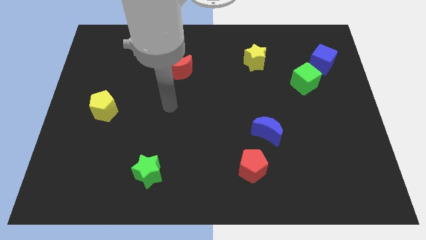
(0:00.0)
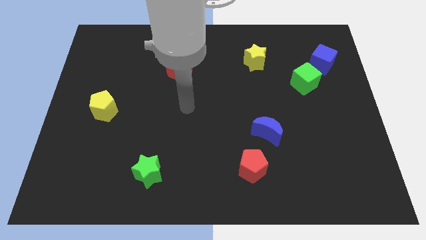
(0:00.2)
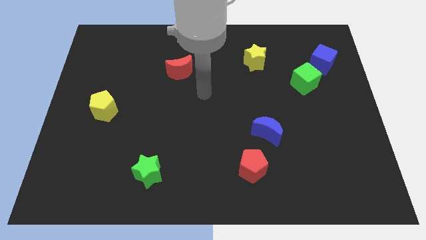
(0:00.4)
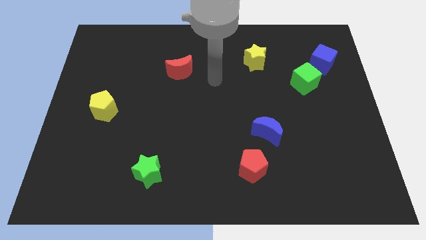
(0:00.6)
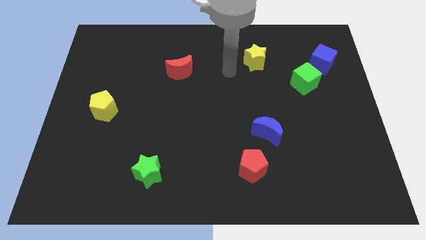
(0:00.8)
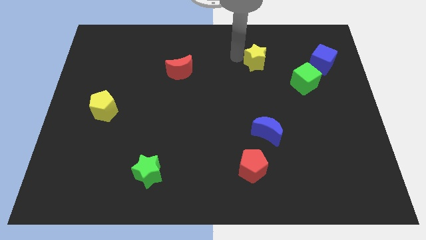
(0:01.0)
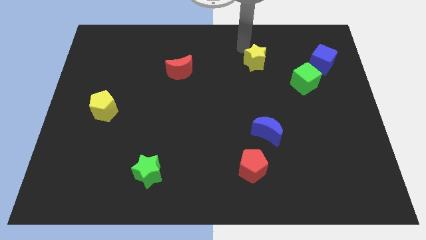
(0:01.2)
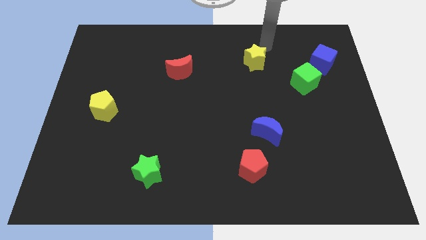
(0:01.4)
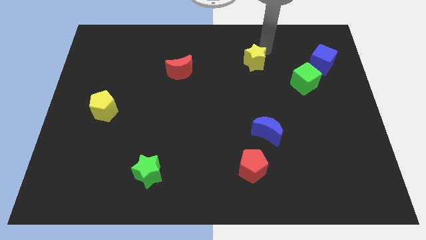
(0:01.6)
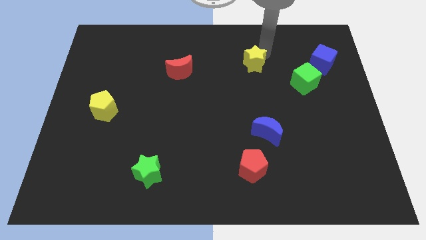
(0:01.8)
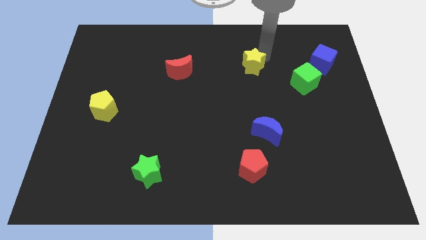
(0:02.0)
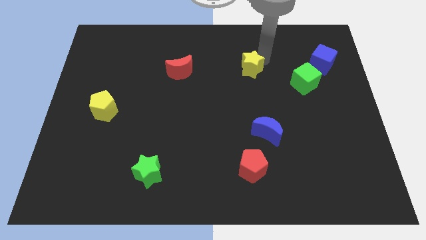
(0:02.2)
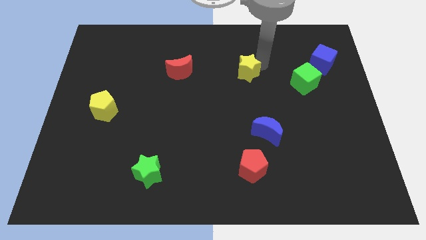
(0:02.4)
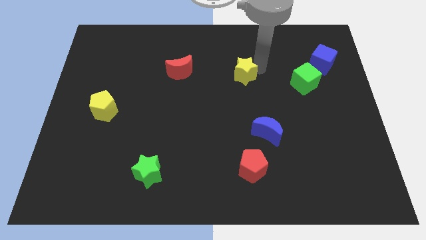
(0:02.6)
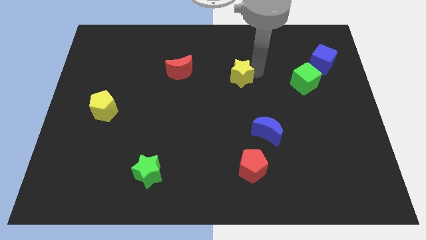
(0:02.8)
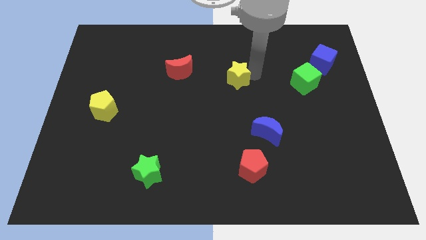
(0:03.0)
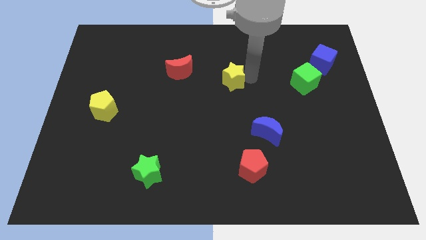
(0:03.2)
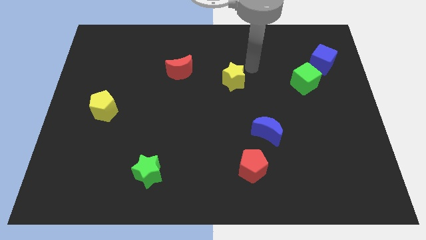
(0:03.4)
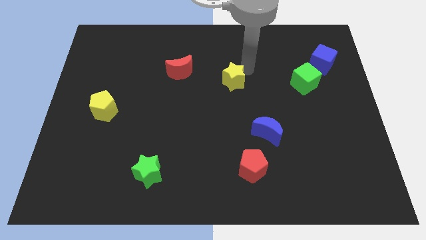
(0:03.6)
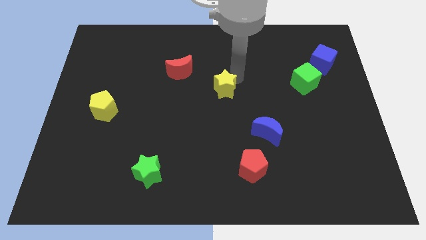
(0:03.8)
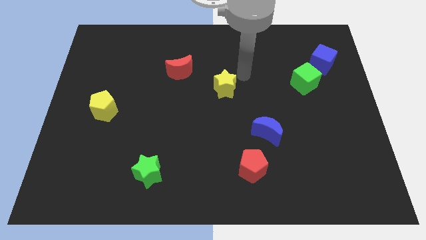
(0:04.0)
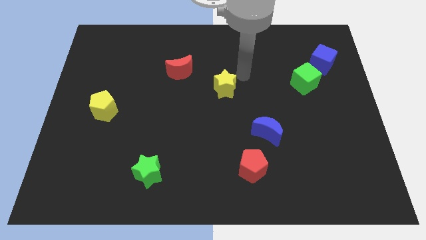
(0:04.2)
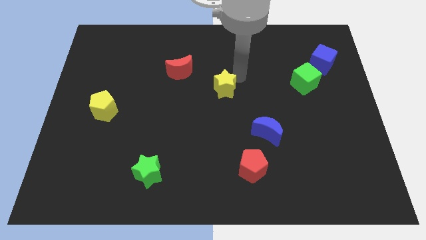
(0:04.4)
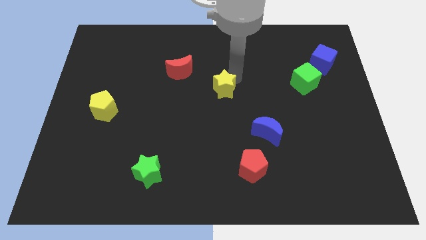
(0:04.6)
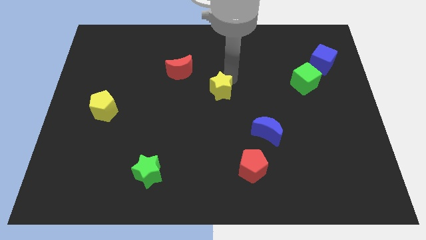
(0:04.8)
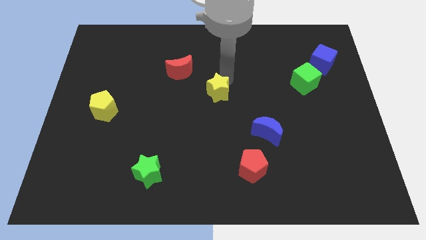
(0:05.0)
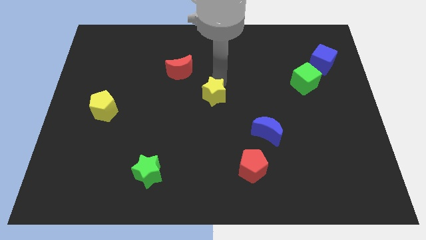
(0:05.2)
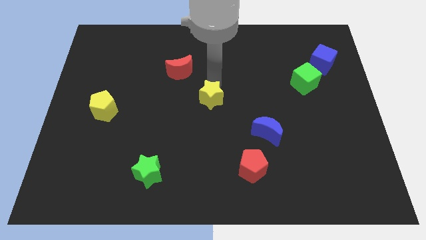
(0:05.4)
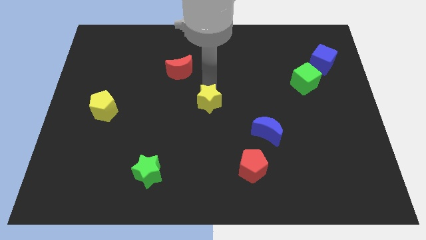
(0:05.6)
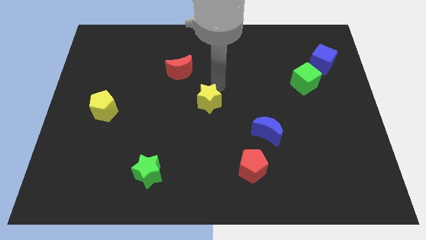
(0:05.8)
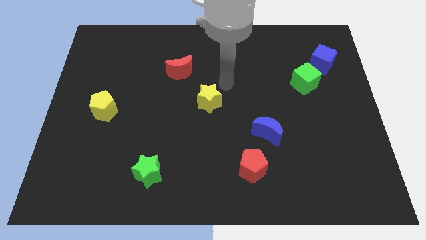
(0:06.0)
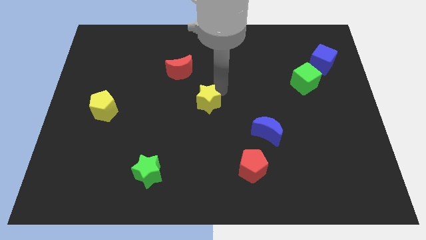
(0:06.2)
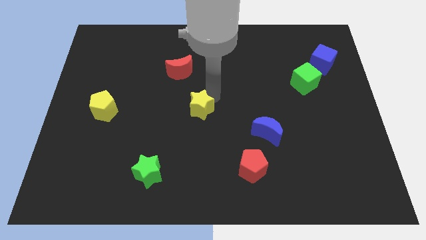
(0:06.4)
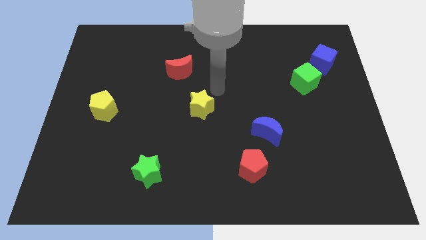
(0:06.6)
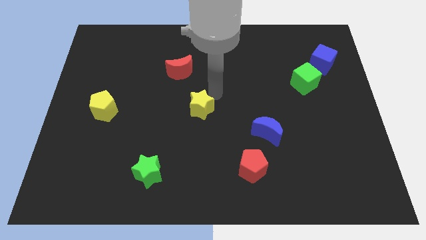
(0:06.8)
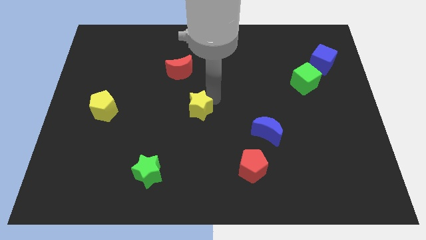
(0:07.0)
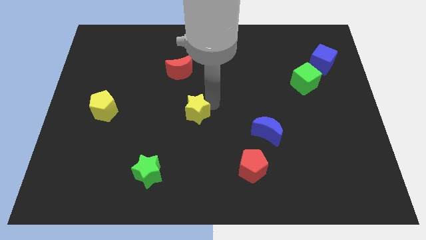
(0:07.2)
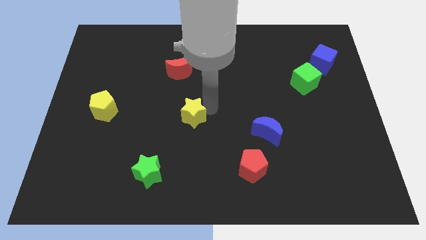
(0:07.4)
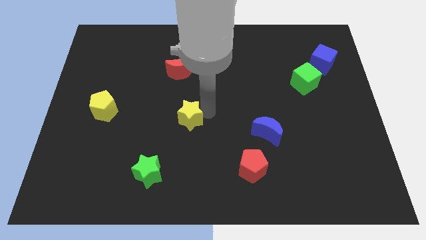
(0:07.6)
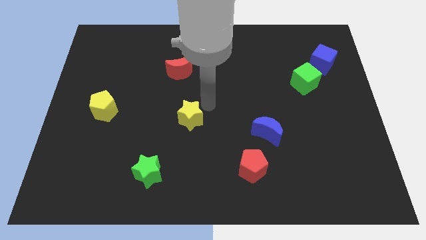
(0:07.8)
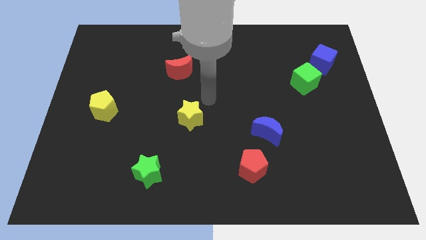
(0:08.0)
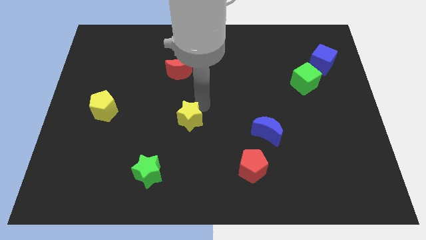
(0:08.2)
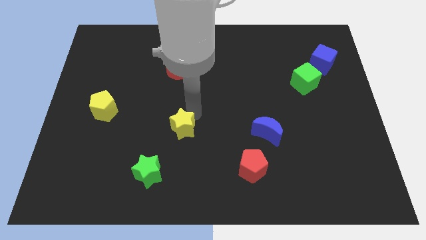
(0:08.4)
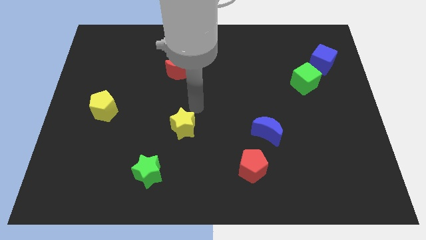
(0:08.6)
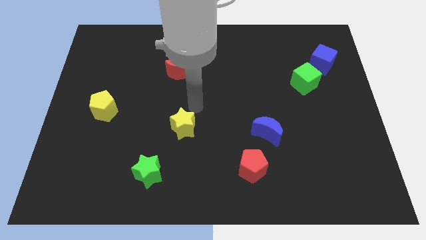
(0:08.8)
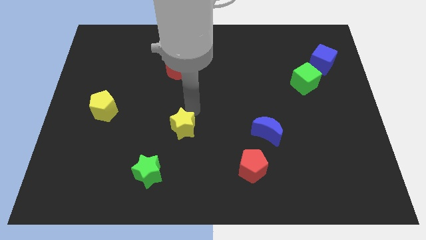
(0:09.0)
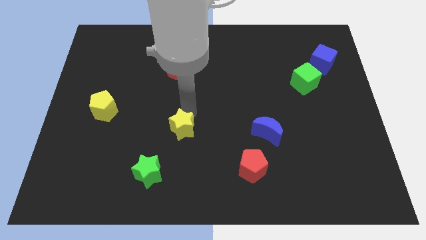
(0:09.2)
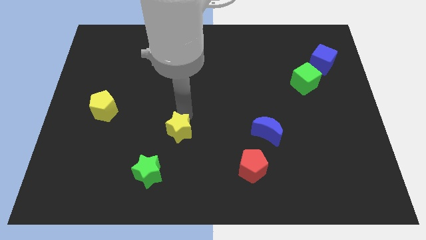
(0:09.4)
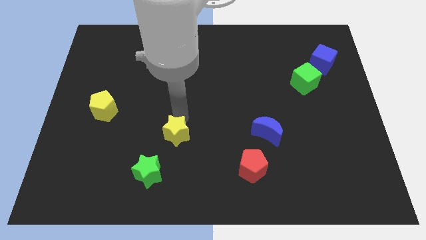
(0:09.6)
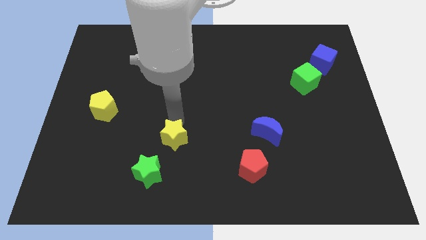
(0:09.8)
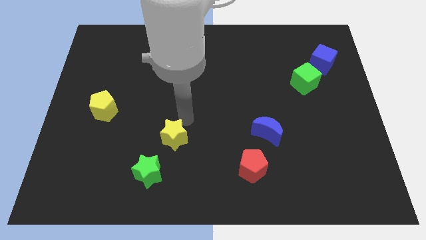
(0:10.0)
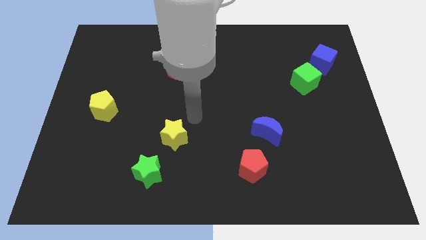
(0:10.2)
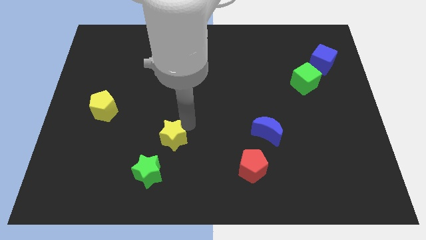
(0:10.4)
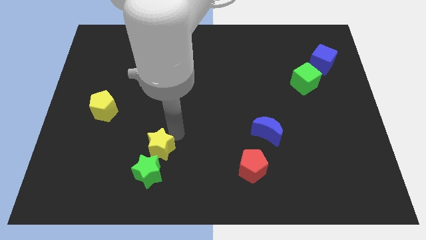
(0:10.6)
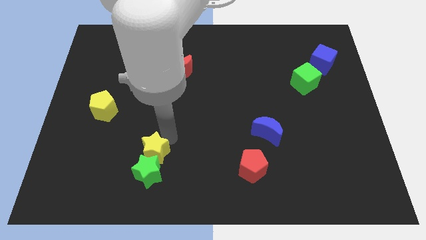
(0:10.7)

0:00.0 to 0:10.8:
push the yellow star to the green star

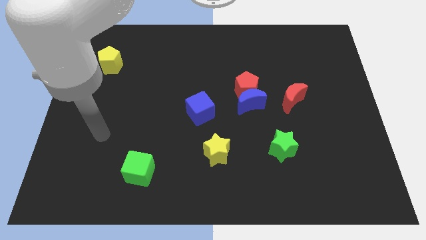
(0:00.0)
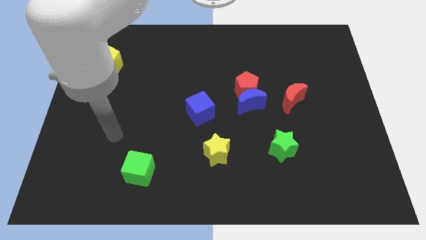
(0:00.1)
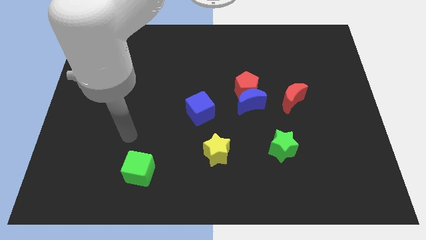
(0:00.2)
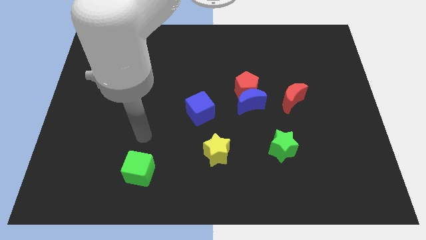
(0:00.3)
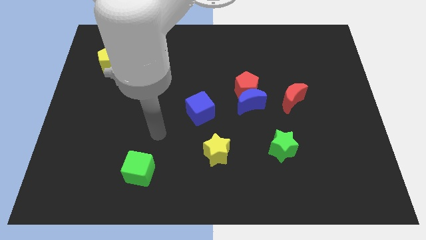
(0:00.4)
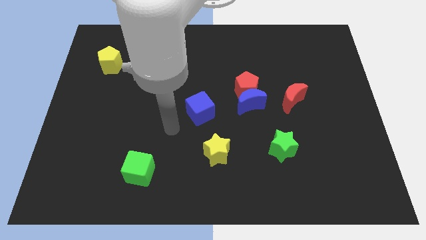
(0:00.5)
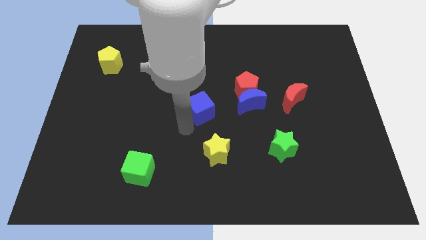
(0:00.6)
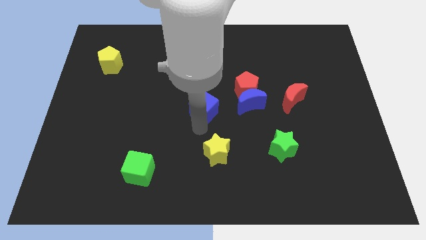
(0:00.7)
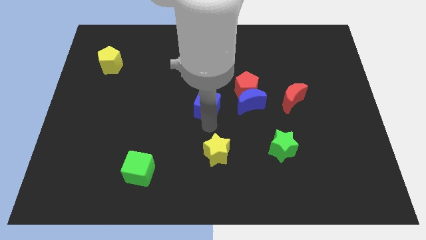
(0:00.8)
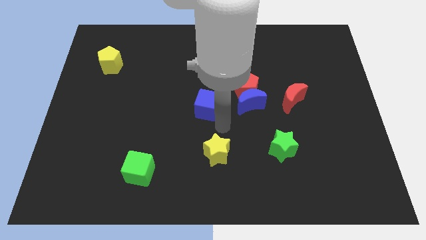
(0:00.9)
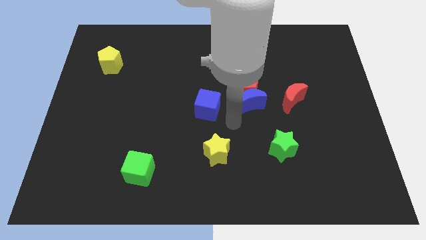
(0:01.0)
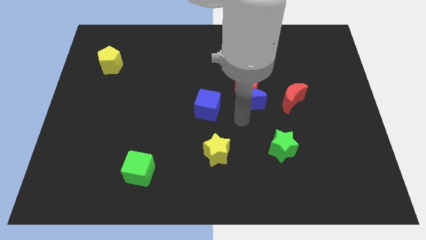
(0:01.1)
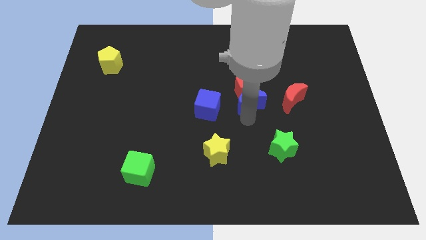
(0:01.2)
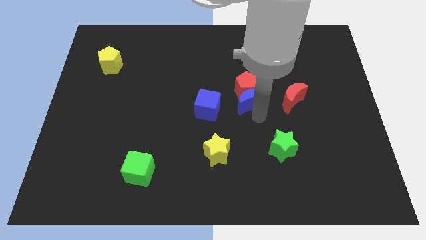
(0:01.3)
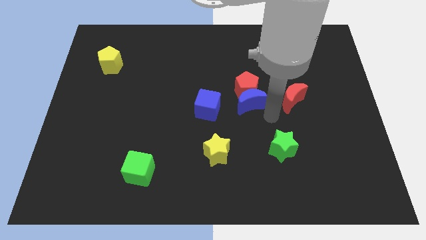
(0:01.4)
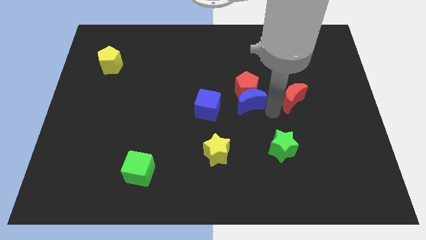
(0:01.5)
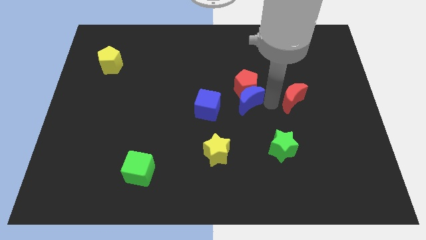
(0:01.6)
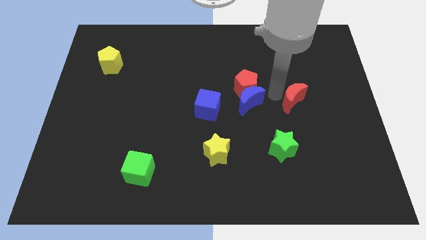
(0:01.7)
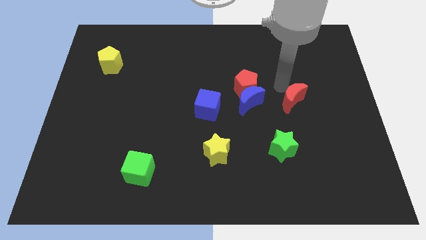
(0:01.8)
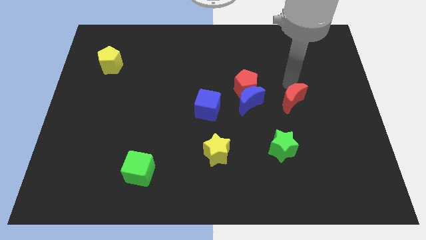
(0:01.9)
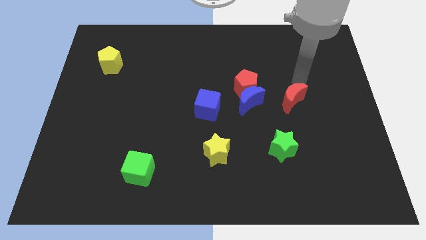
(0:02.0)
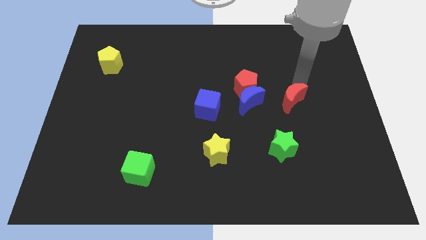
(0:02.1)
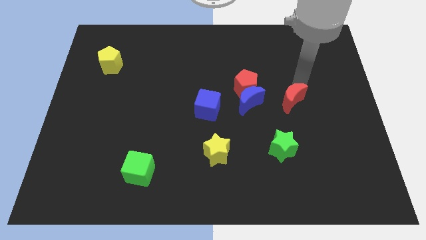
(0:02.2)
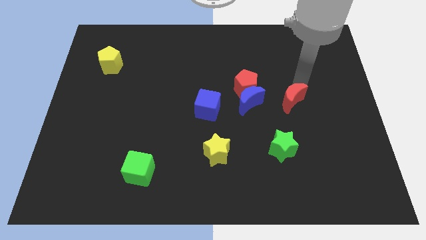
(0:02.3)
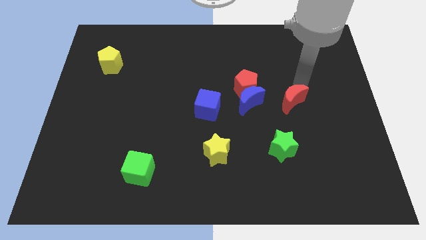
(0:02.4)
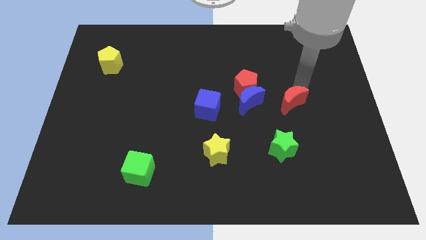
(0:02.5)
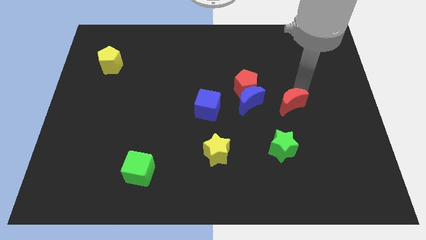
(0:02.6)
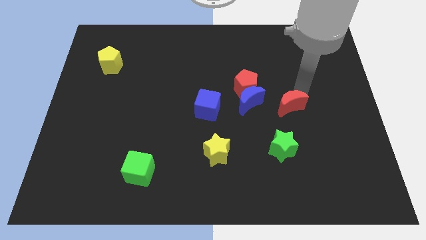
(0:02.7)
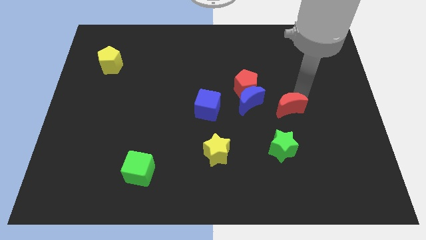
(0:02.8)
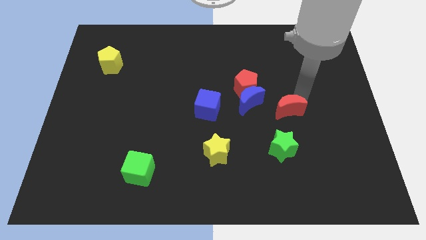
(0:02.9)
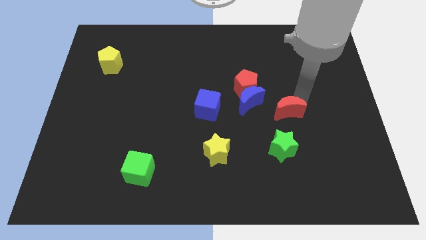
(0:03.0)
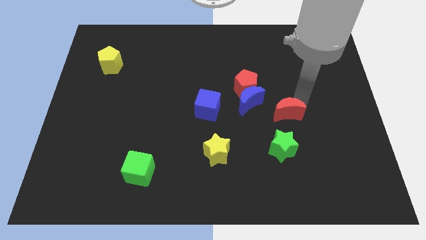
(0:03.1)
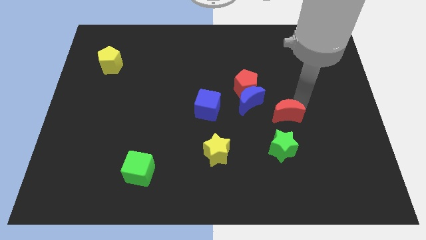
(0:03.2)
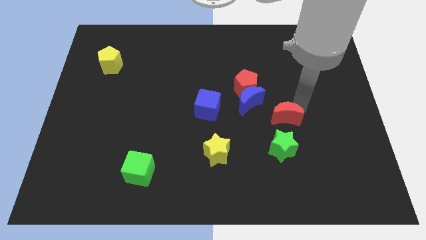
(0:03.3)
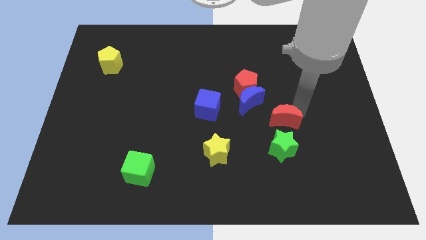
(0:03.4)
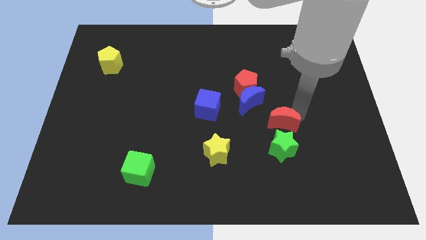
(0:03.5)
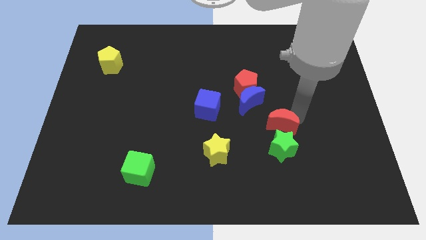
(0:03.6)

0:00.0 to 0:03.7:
put the red moon to the green star
